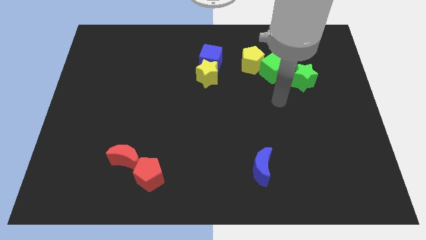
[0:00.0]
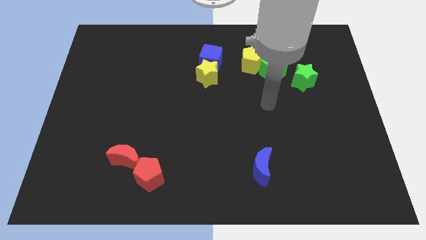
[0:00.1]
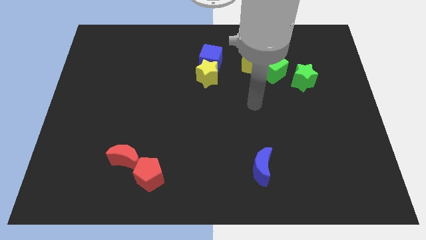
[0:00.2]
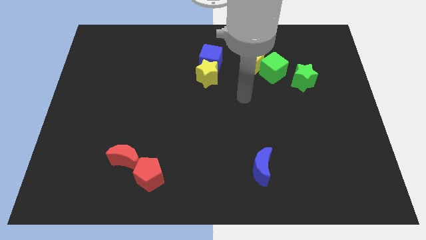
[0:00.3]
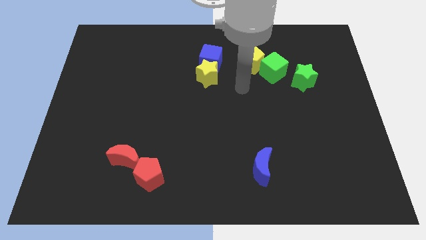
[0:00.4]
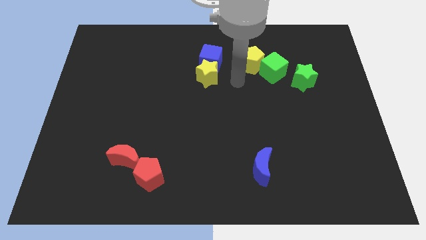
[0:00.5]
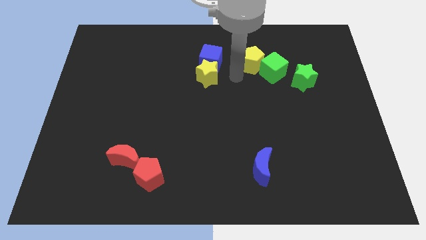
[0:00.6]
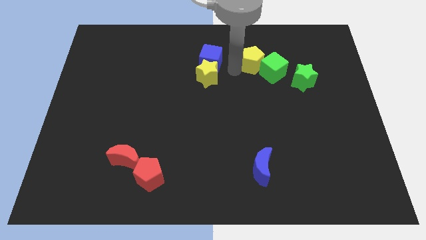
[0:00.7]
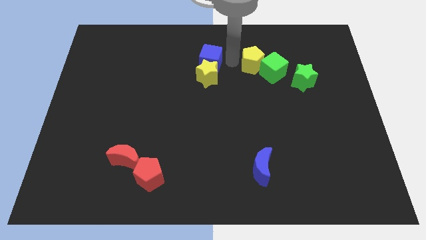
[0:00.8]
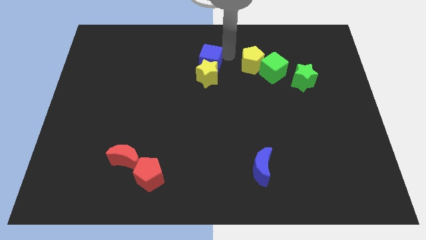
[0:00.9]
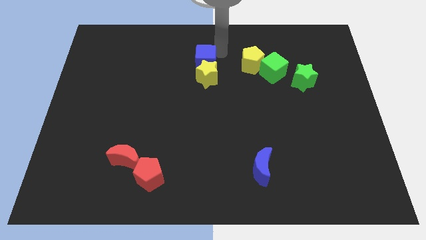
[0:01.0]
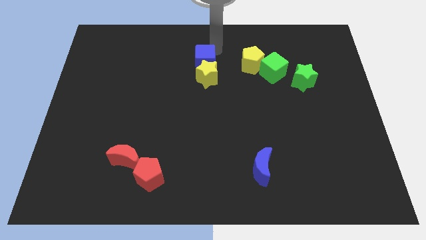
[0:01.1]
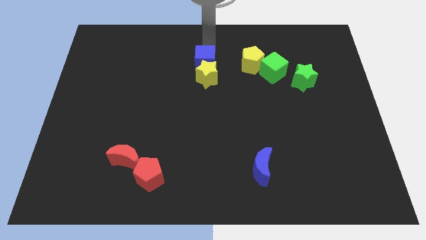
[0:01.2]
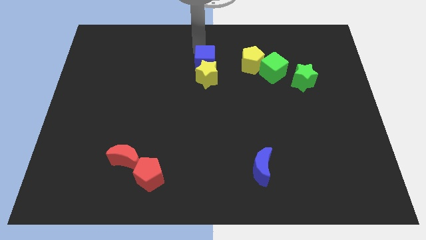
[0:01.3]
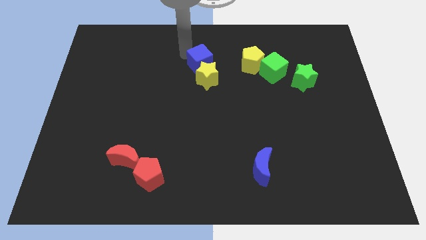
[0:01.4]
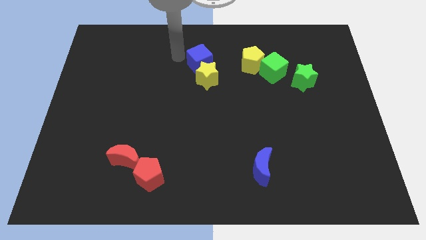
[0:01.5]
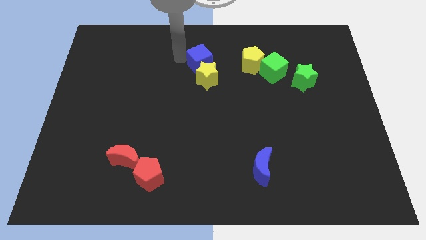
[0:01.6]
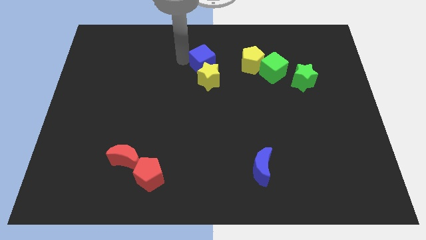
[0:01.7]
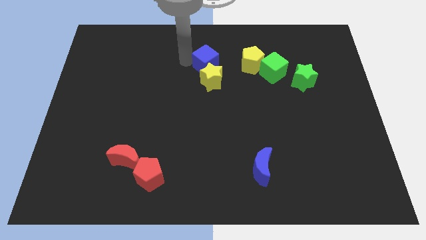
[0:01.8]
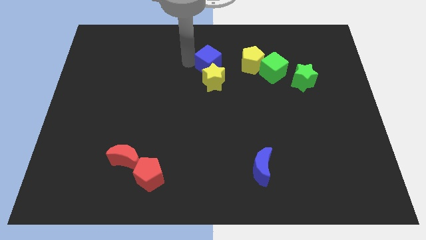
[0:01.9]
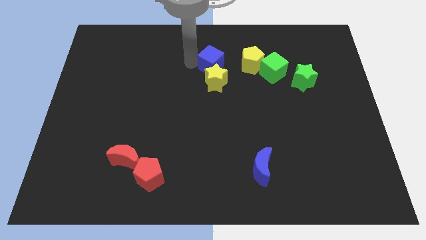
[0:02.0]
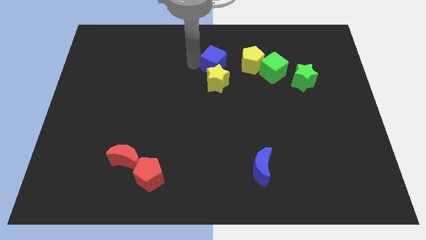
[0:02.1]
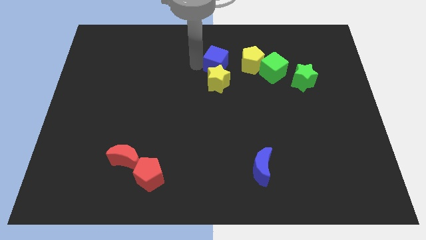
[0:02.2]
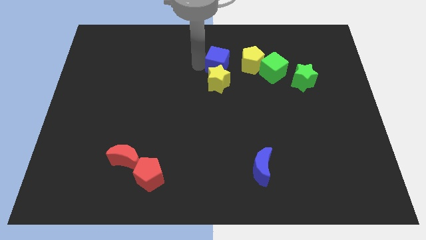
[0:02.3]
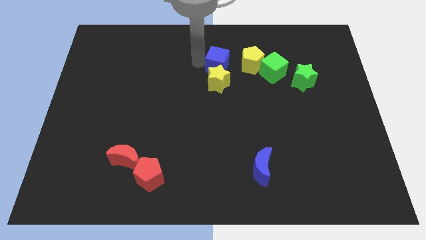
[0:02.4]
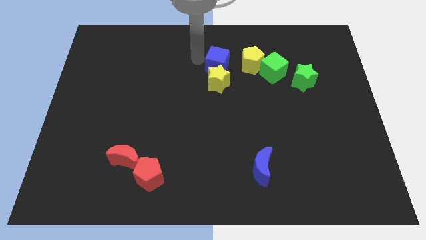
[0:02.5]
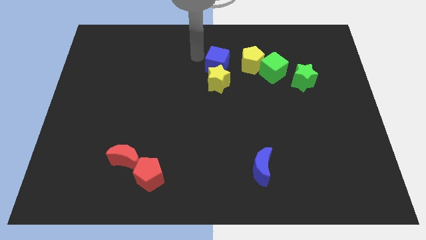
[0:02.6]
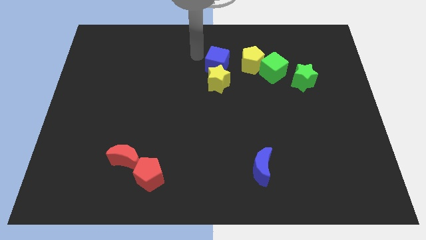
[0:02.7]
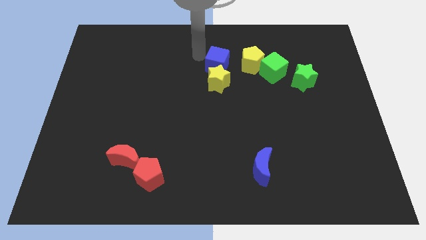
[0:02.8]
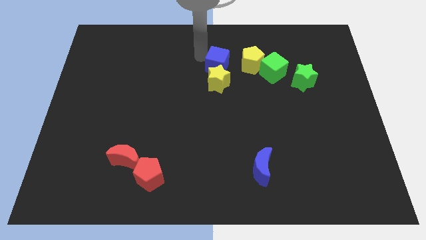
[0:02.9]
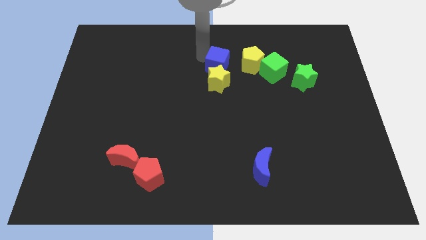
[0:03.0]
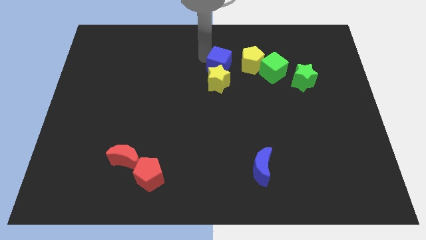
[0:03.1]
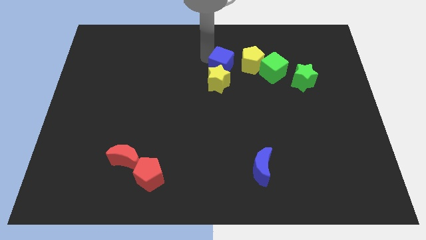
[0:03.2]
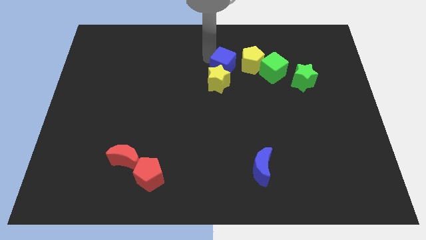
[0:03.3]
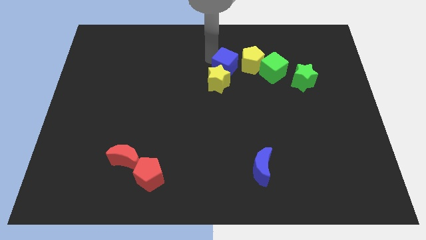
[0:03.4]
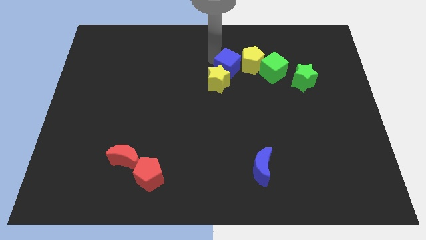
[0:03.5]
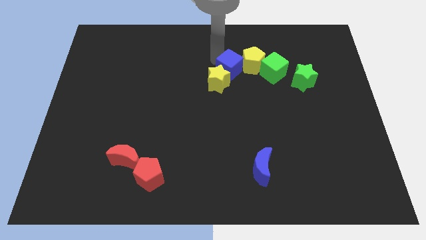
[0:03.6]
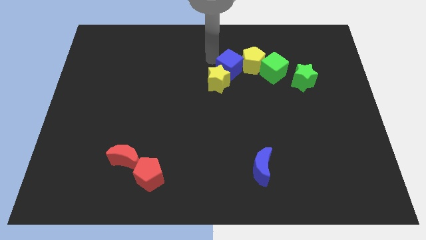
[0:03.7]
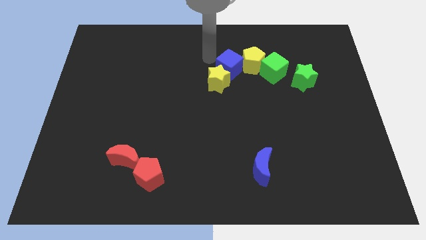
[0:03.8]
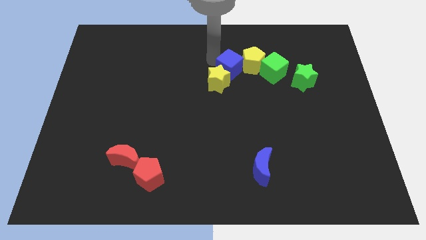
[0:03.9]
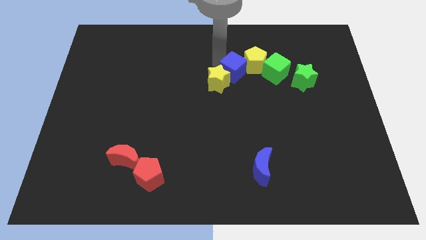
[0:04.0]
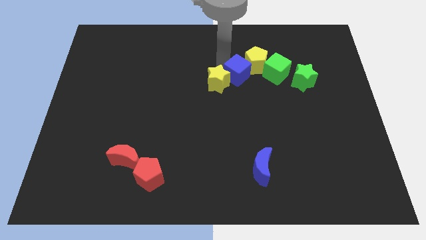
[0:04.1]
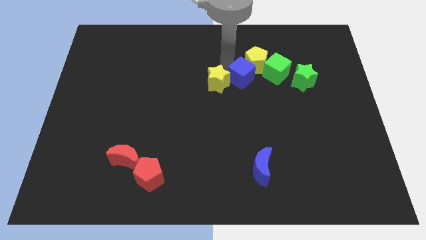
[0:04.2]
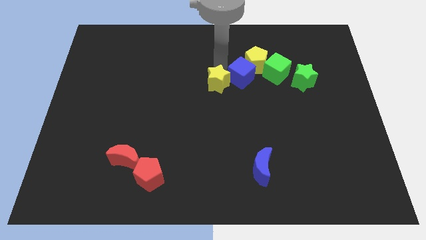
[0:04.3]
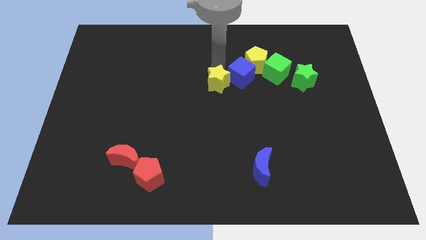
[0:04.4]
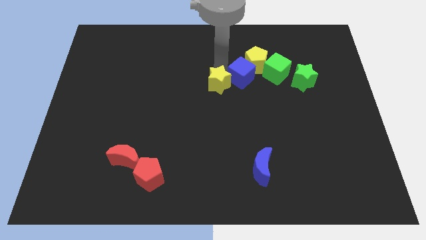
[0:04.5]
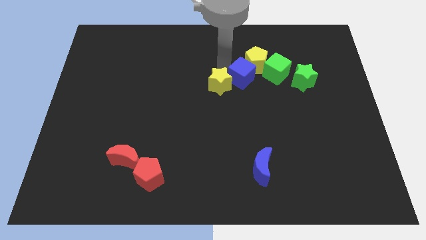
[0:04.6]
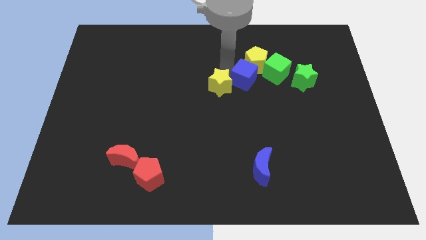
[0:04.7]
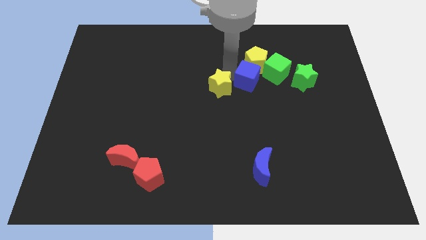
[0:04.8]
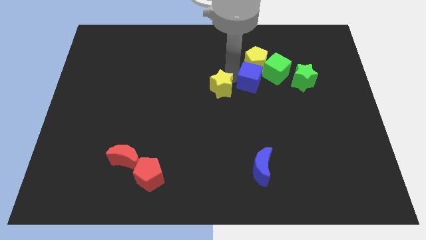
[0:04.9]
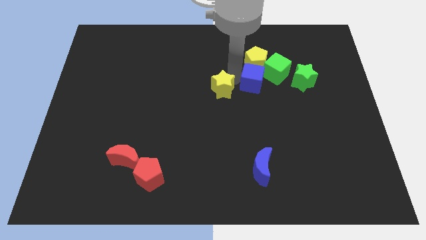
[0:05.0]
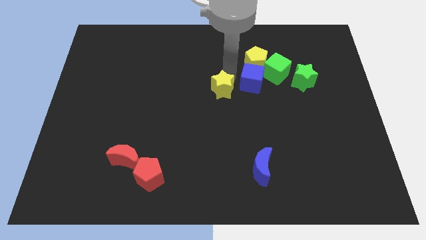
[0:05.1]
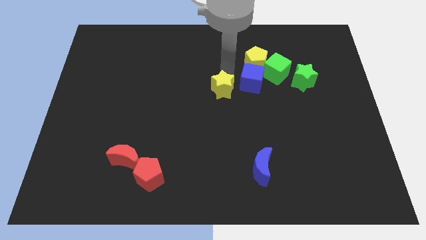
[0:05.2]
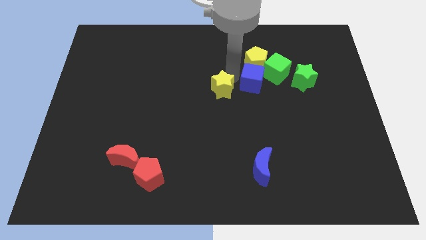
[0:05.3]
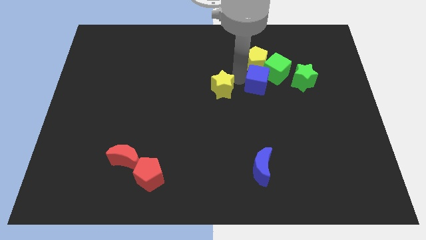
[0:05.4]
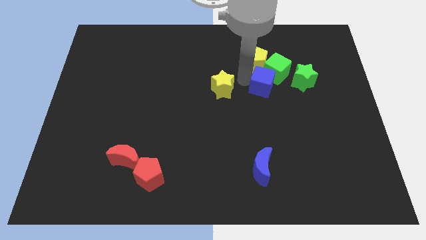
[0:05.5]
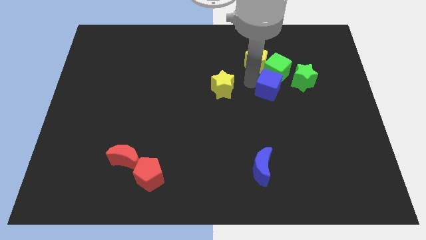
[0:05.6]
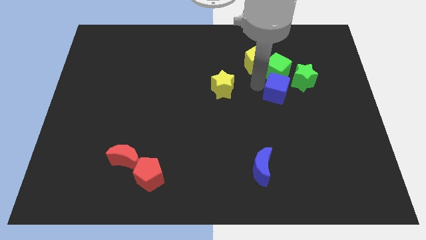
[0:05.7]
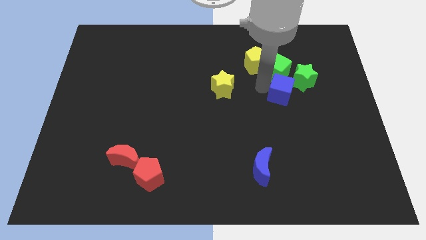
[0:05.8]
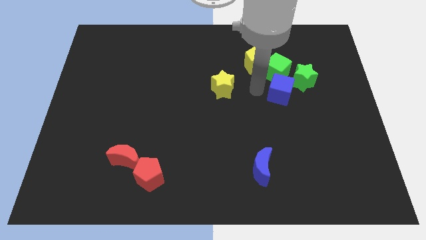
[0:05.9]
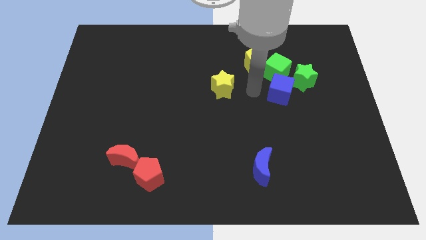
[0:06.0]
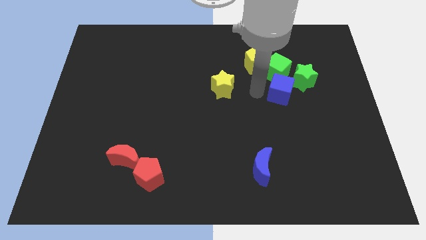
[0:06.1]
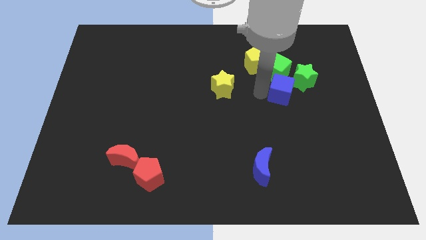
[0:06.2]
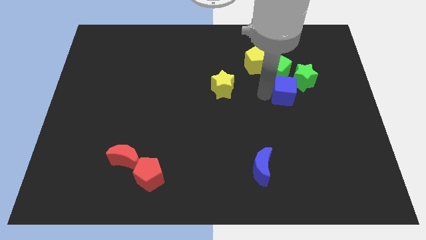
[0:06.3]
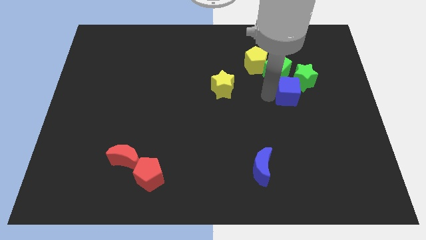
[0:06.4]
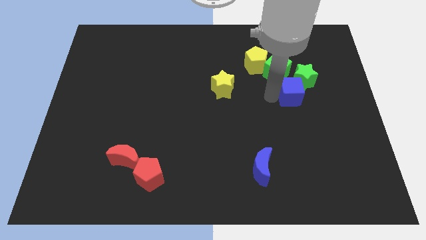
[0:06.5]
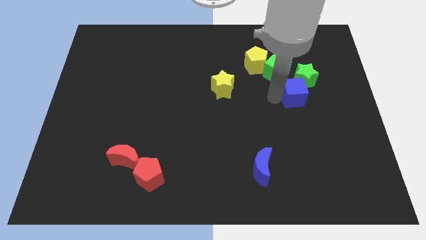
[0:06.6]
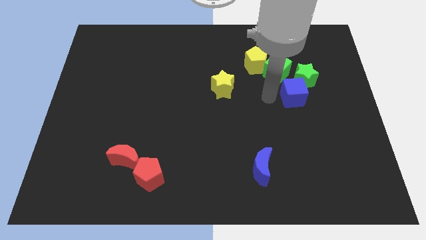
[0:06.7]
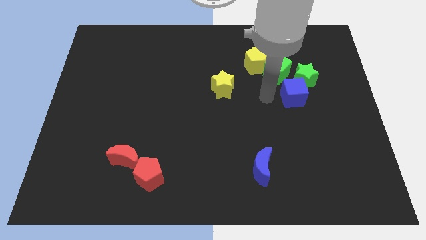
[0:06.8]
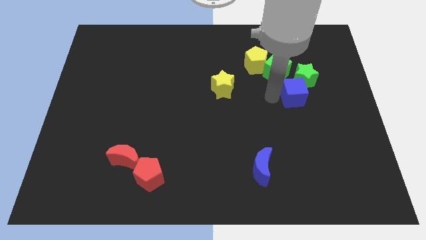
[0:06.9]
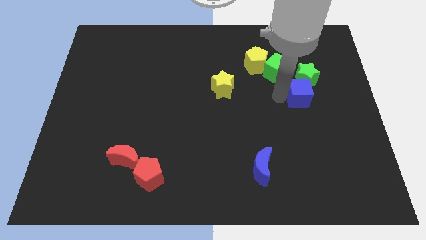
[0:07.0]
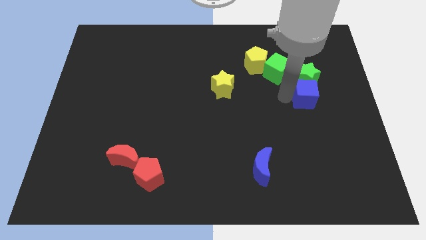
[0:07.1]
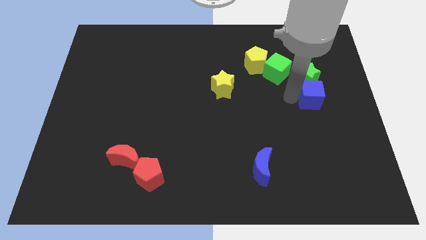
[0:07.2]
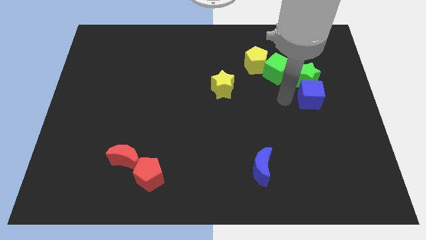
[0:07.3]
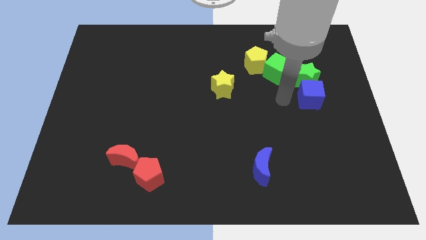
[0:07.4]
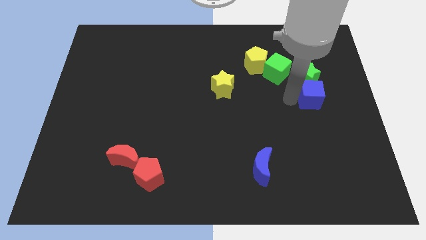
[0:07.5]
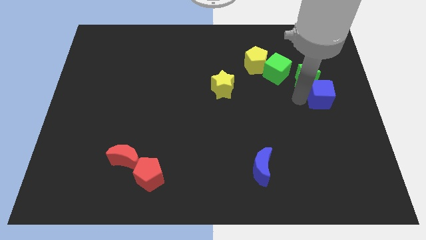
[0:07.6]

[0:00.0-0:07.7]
move the blue cube to the center right
